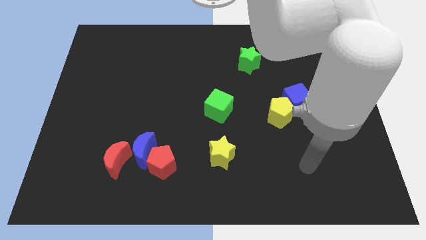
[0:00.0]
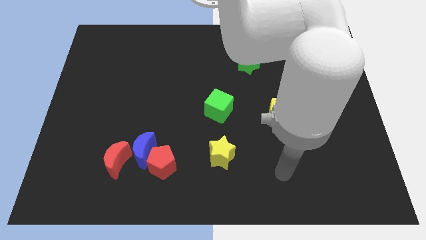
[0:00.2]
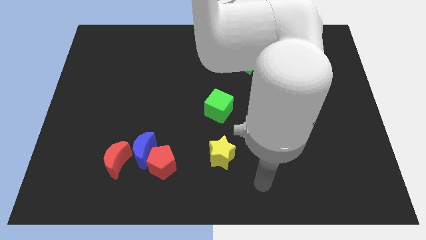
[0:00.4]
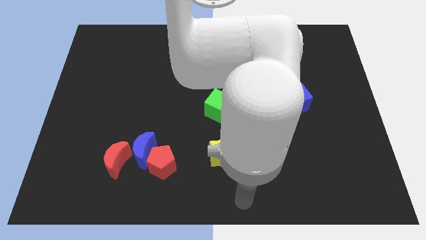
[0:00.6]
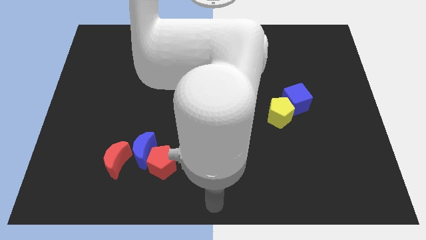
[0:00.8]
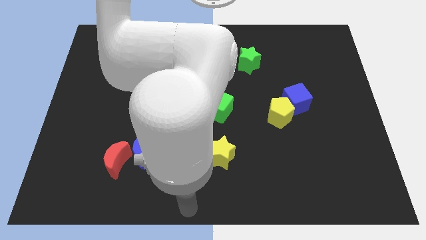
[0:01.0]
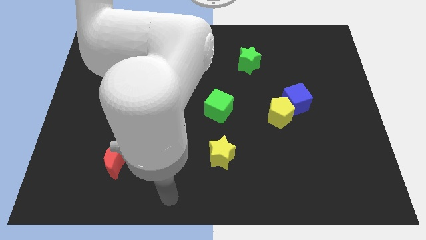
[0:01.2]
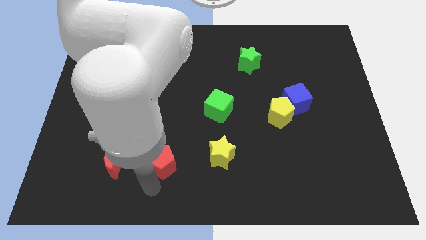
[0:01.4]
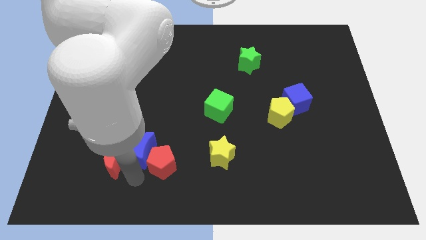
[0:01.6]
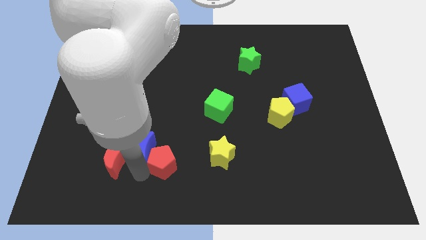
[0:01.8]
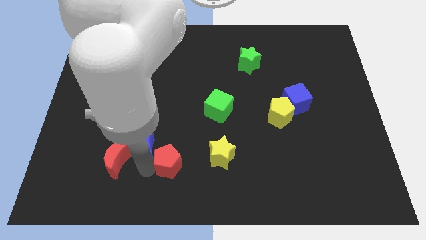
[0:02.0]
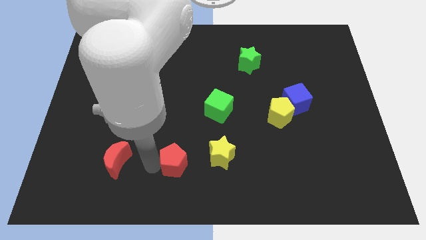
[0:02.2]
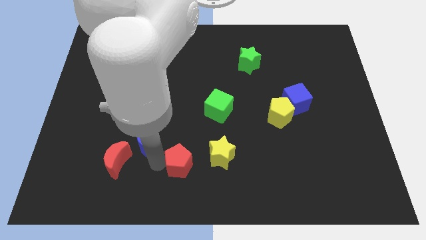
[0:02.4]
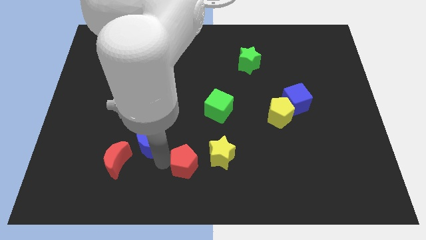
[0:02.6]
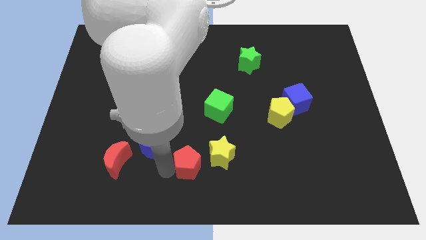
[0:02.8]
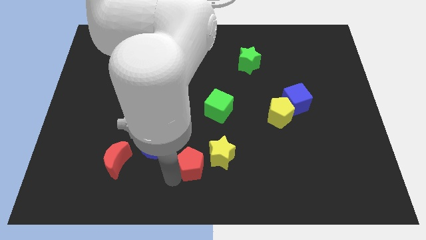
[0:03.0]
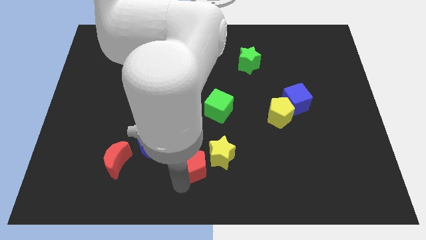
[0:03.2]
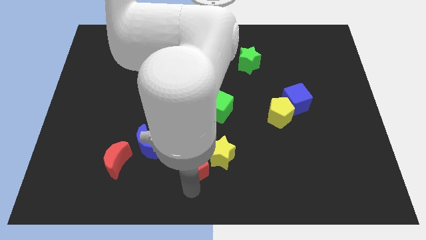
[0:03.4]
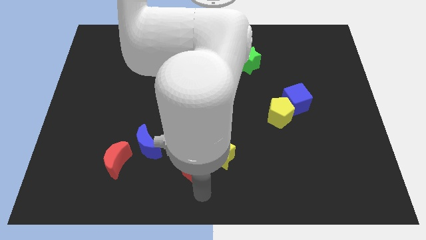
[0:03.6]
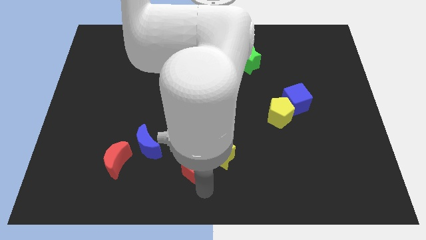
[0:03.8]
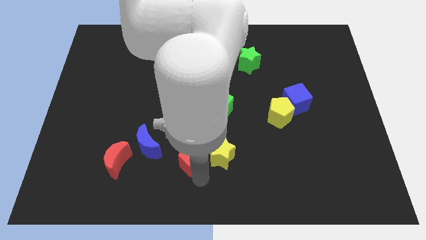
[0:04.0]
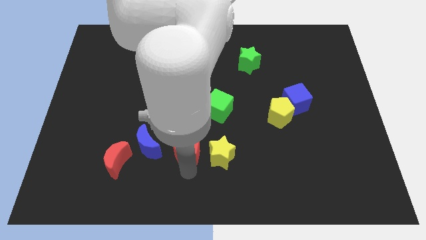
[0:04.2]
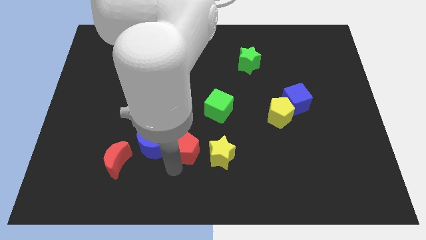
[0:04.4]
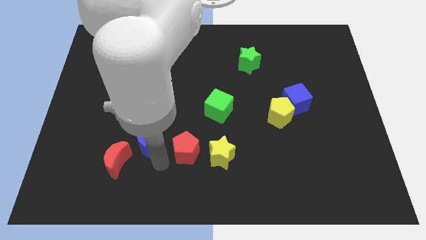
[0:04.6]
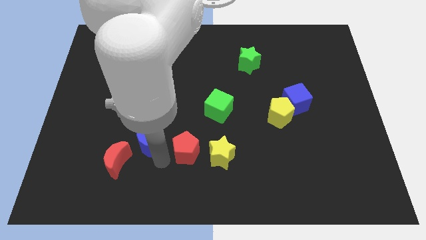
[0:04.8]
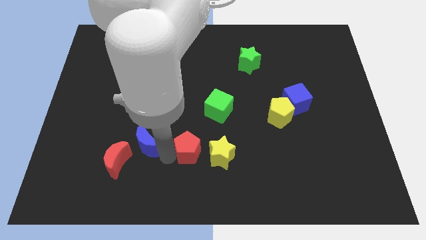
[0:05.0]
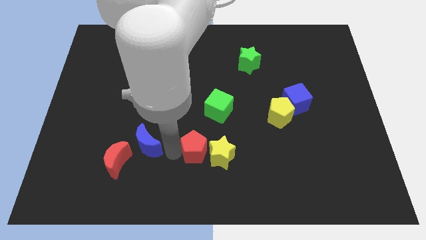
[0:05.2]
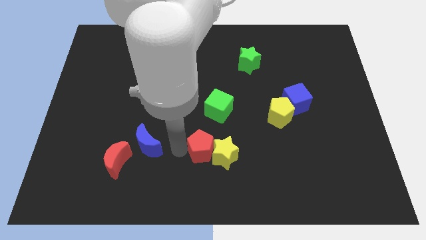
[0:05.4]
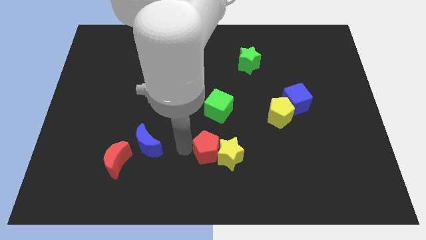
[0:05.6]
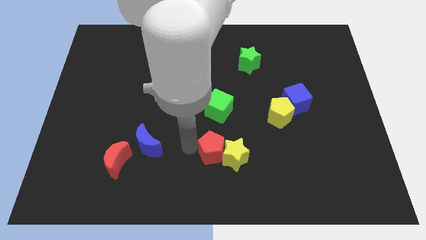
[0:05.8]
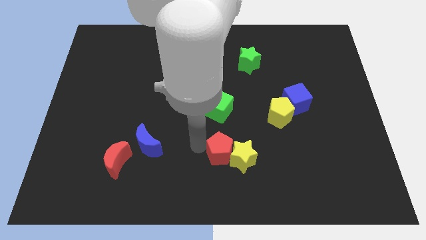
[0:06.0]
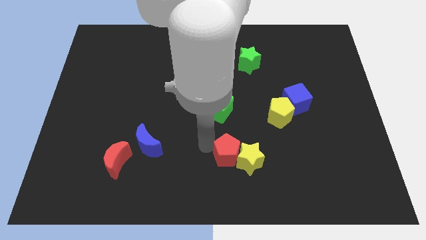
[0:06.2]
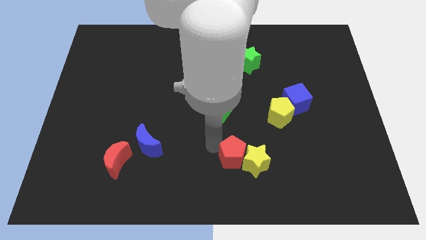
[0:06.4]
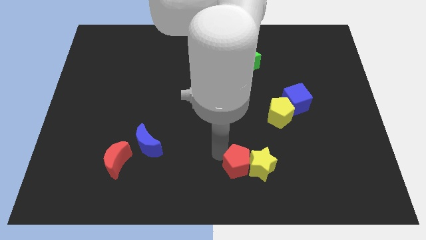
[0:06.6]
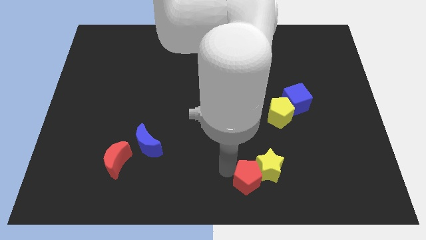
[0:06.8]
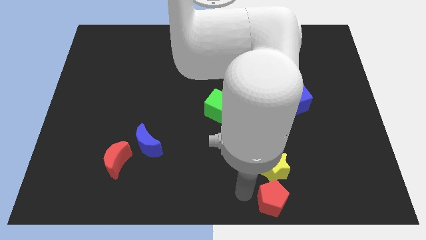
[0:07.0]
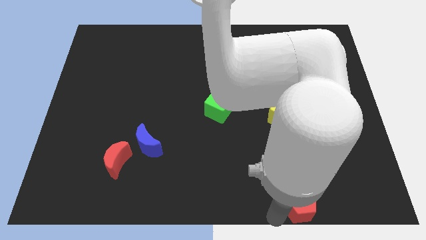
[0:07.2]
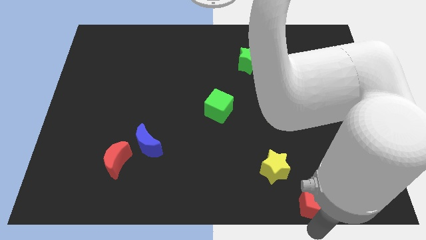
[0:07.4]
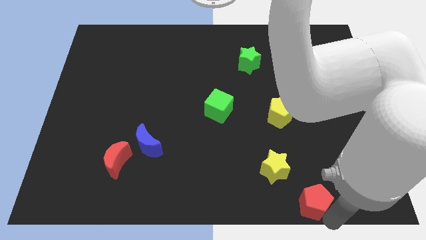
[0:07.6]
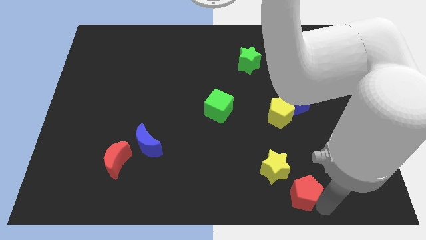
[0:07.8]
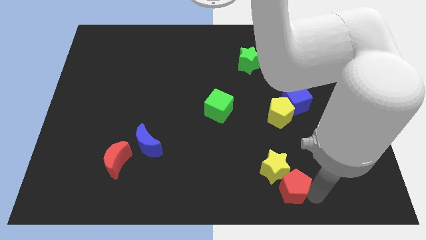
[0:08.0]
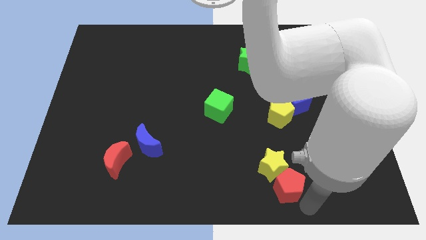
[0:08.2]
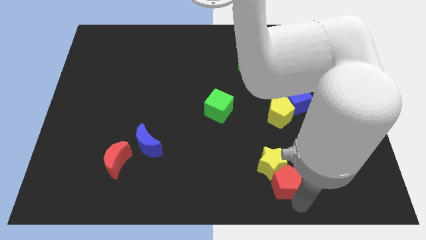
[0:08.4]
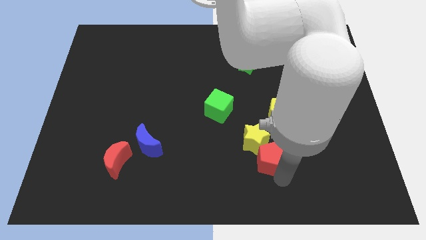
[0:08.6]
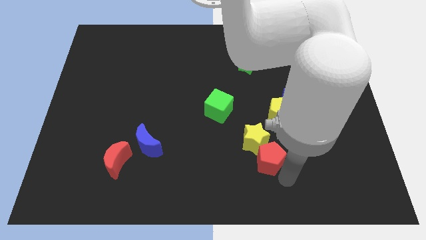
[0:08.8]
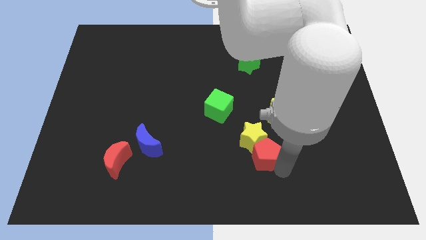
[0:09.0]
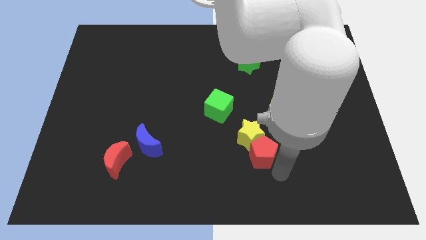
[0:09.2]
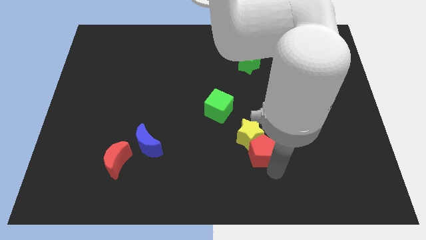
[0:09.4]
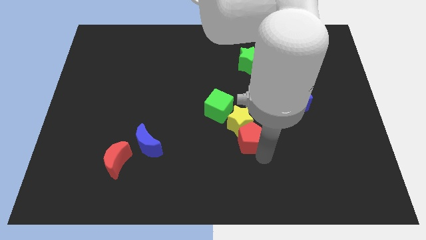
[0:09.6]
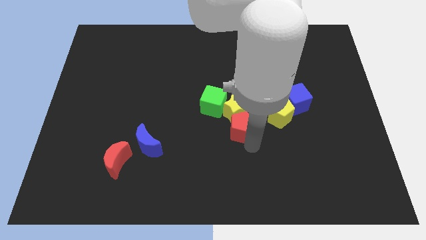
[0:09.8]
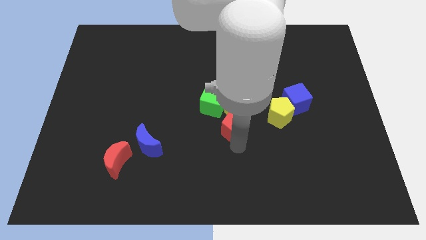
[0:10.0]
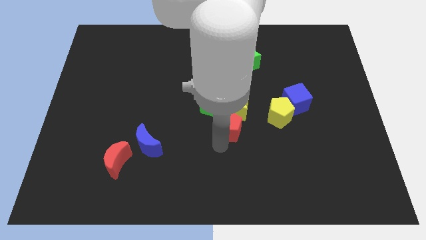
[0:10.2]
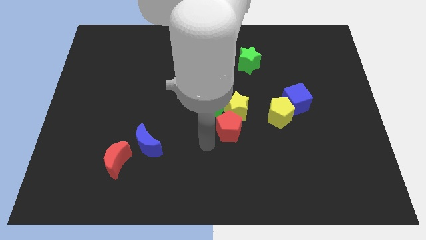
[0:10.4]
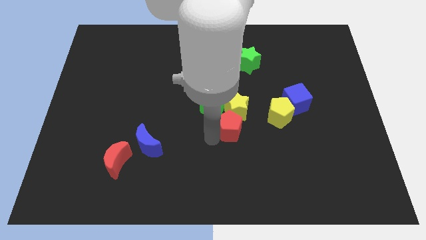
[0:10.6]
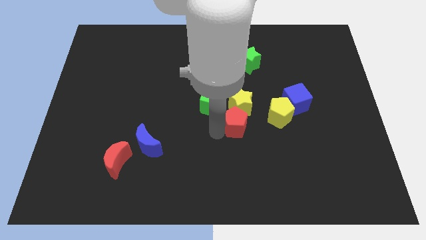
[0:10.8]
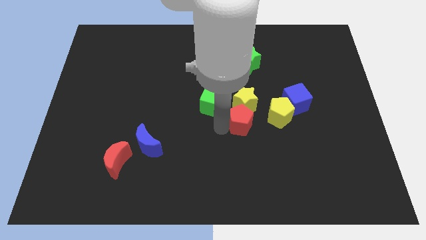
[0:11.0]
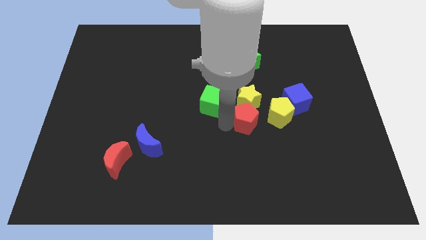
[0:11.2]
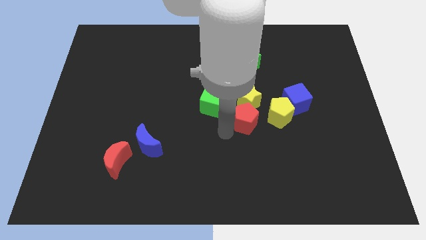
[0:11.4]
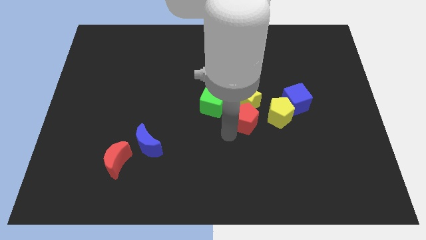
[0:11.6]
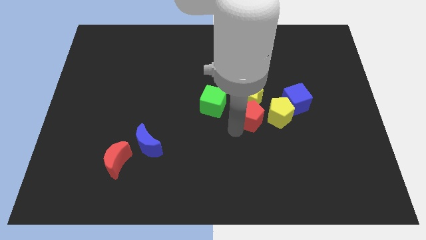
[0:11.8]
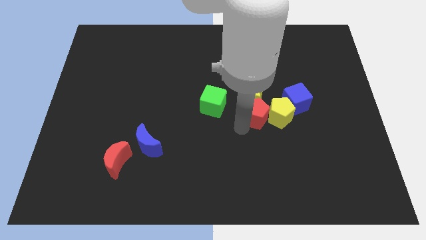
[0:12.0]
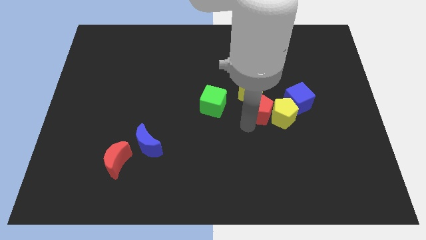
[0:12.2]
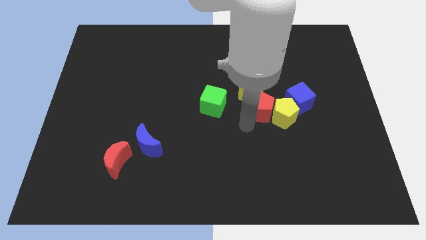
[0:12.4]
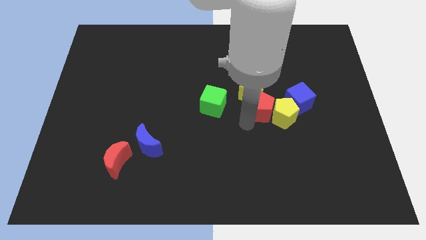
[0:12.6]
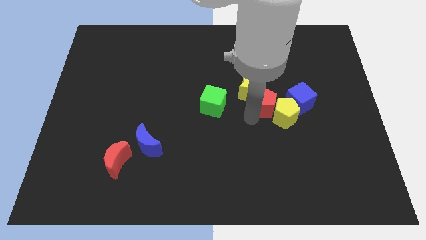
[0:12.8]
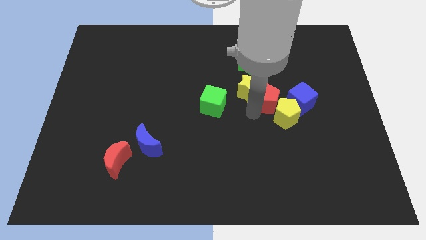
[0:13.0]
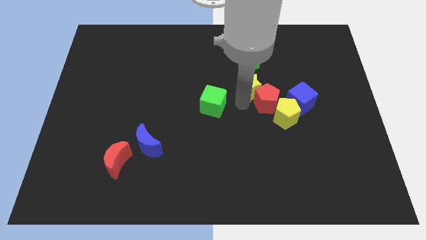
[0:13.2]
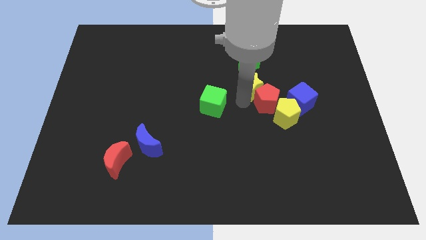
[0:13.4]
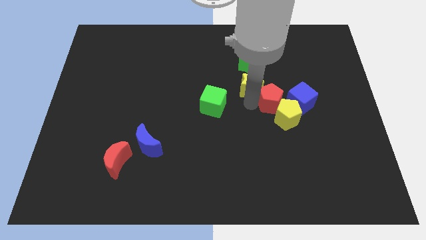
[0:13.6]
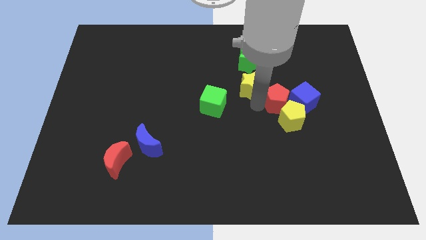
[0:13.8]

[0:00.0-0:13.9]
slide the red pentagon towards the blue cube

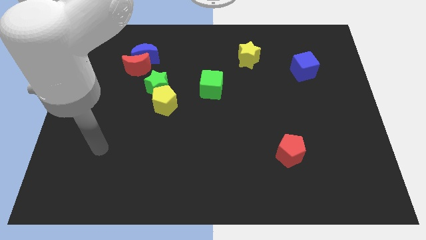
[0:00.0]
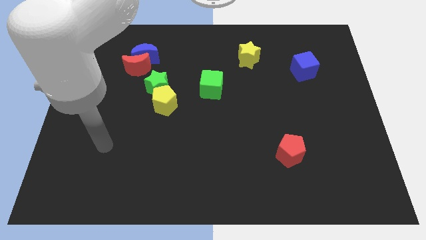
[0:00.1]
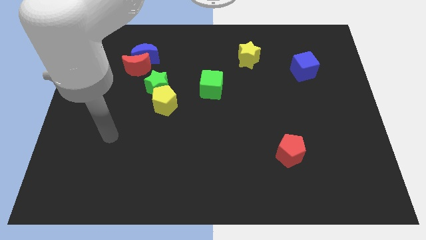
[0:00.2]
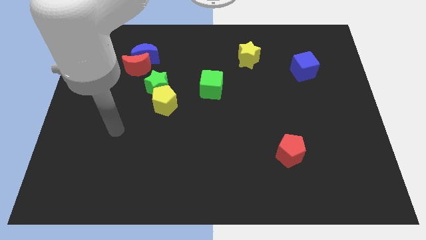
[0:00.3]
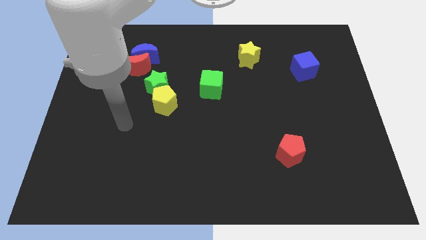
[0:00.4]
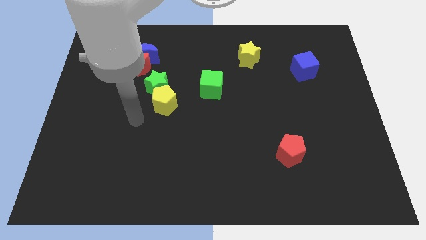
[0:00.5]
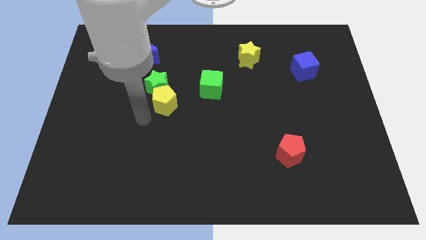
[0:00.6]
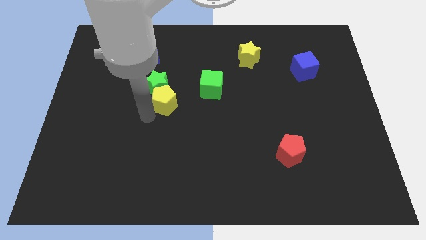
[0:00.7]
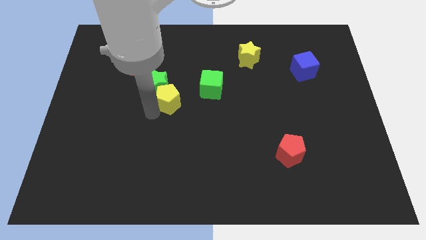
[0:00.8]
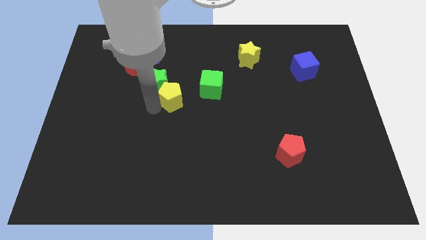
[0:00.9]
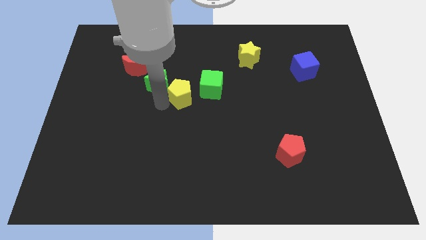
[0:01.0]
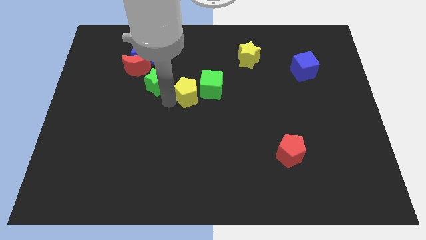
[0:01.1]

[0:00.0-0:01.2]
move the yellow pentagon next to the green cube
